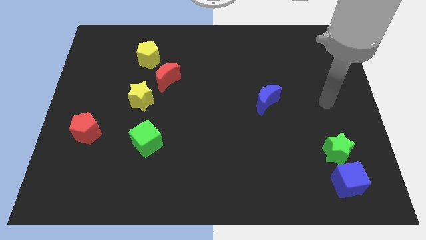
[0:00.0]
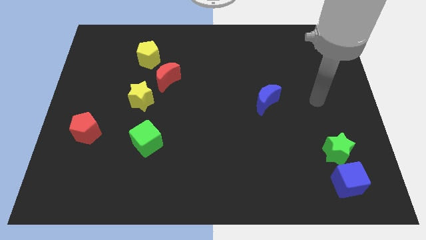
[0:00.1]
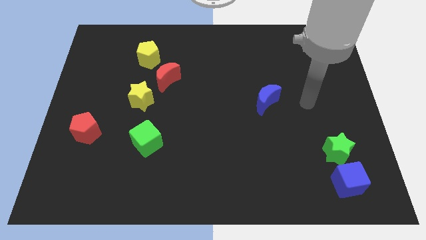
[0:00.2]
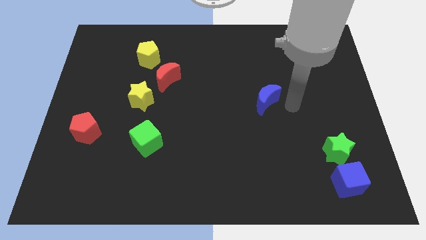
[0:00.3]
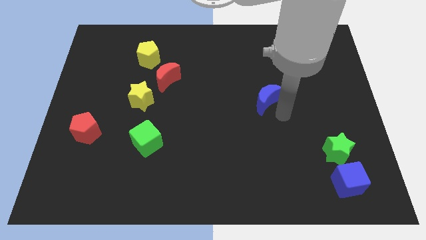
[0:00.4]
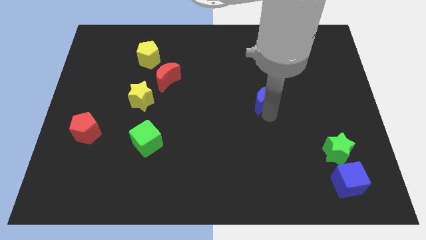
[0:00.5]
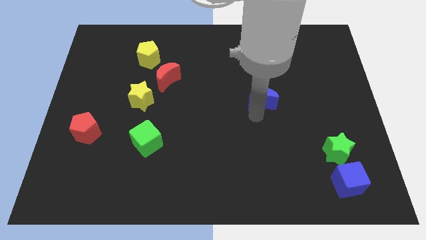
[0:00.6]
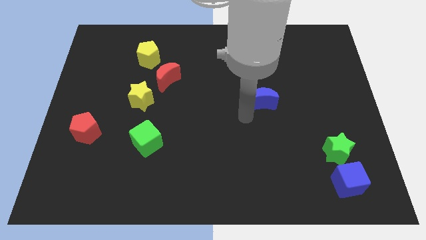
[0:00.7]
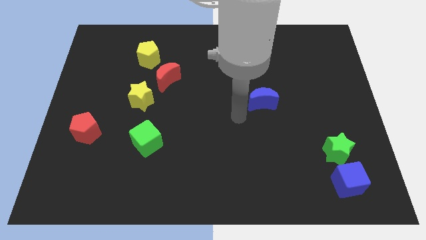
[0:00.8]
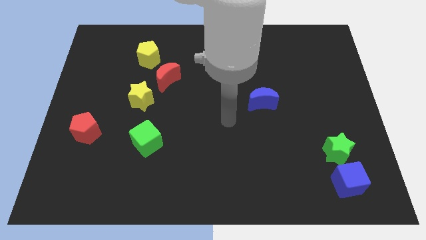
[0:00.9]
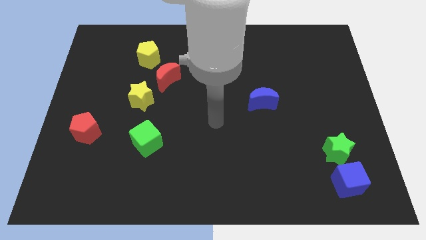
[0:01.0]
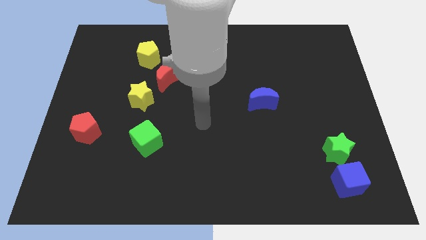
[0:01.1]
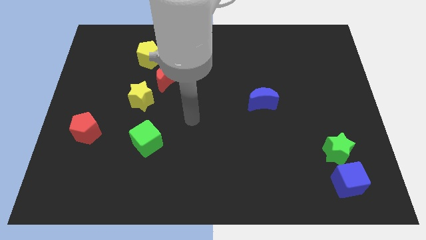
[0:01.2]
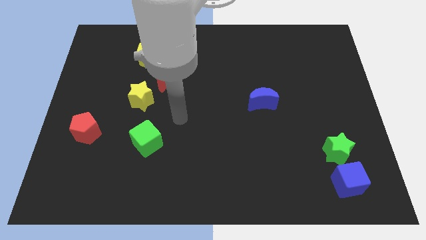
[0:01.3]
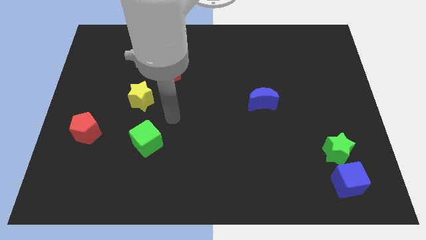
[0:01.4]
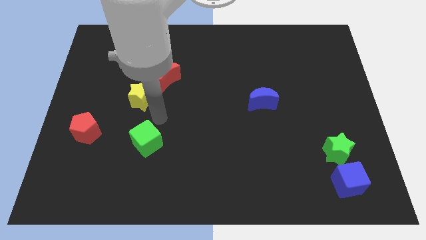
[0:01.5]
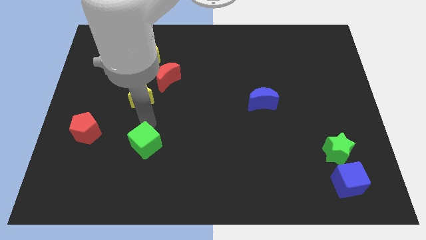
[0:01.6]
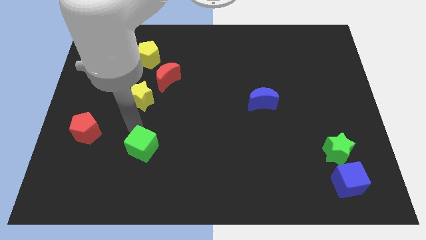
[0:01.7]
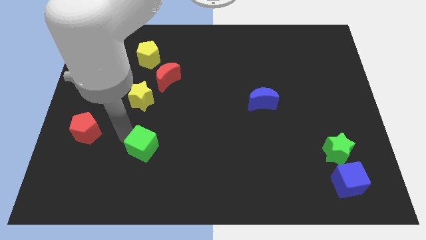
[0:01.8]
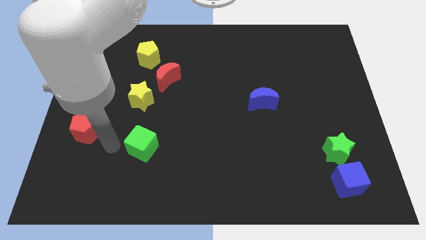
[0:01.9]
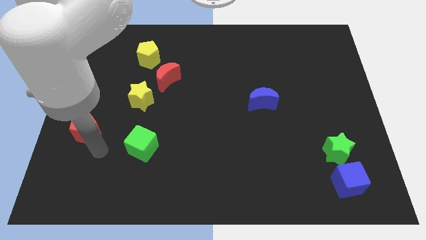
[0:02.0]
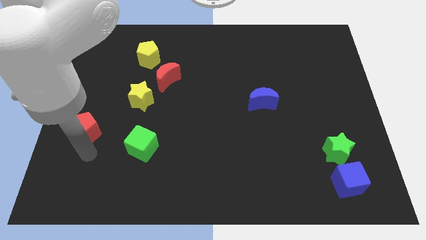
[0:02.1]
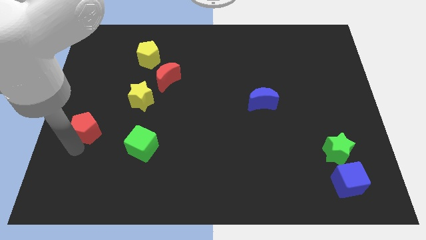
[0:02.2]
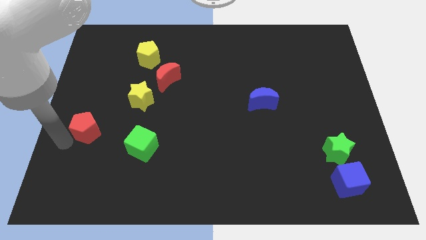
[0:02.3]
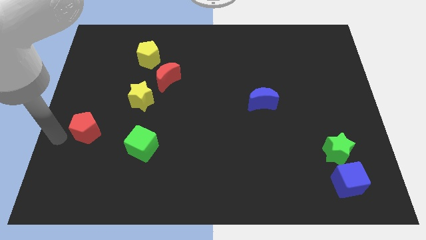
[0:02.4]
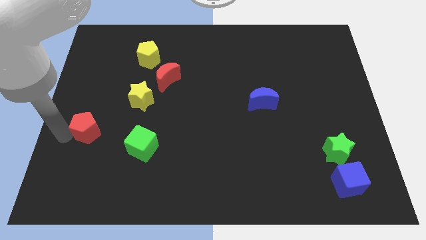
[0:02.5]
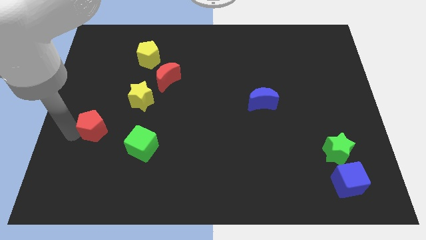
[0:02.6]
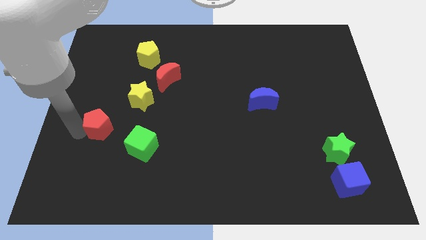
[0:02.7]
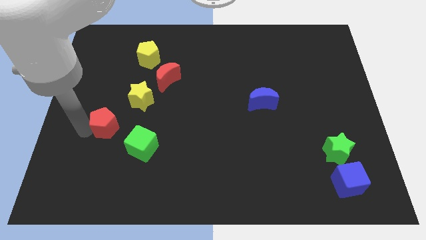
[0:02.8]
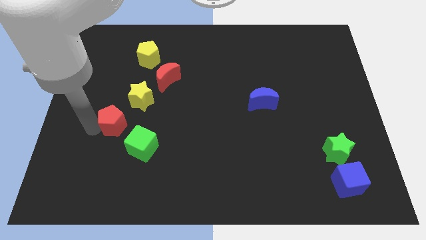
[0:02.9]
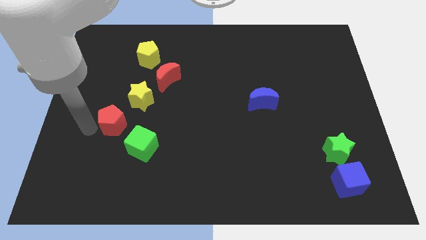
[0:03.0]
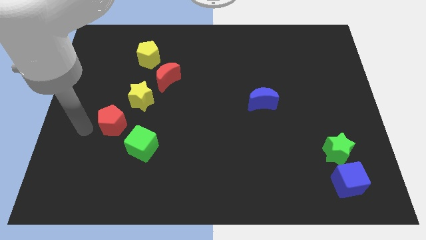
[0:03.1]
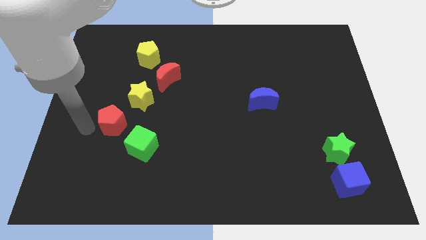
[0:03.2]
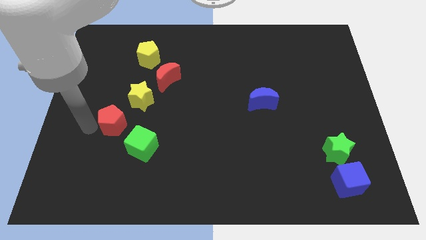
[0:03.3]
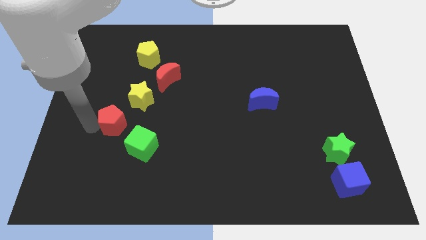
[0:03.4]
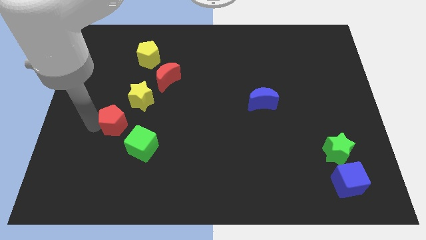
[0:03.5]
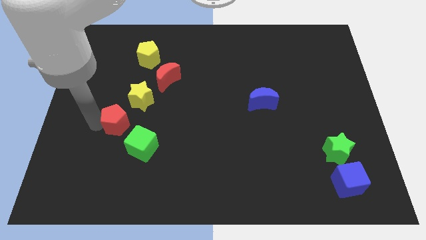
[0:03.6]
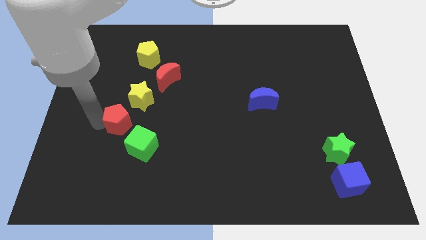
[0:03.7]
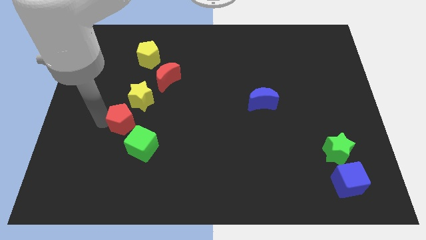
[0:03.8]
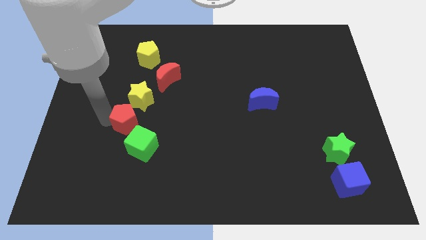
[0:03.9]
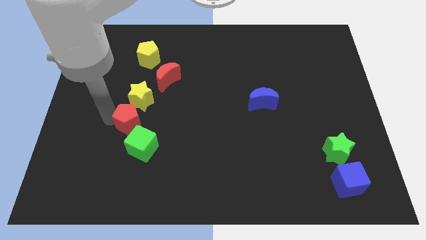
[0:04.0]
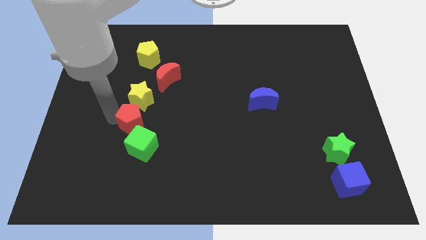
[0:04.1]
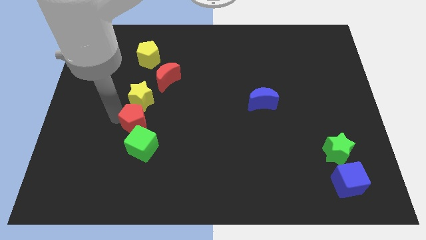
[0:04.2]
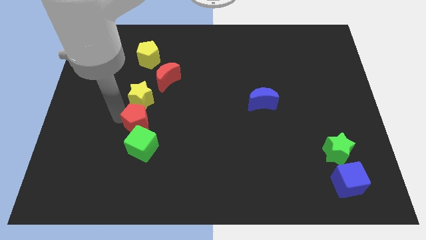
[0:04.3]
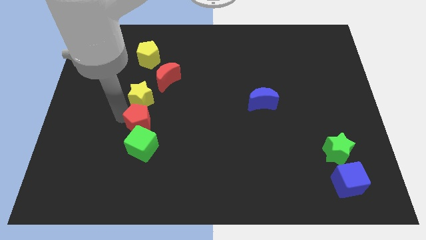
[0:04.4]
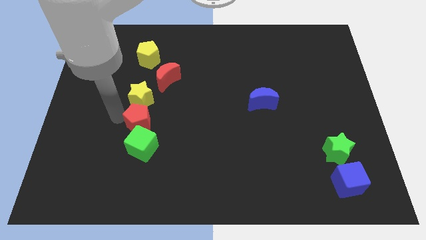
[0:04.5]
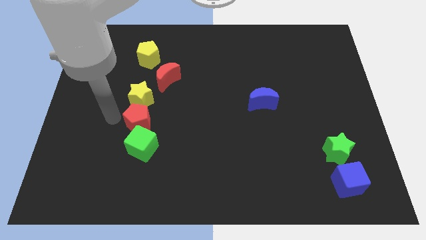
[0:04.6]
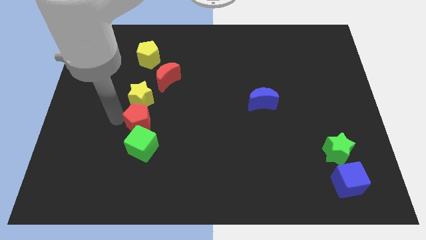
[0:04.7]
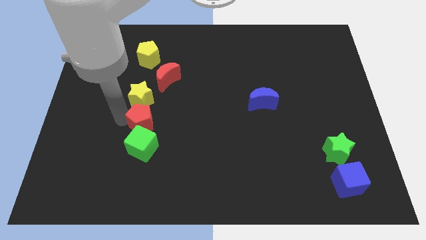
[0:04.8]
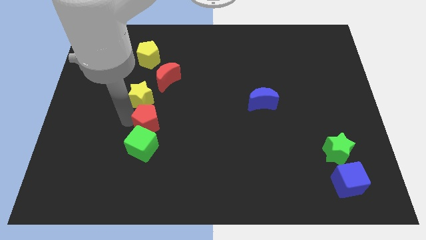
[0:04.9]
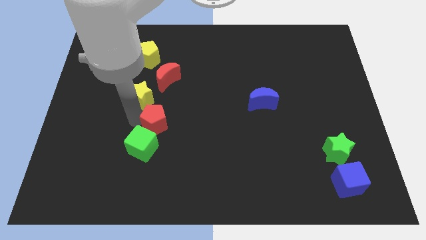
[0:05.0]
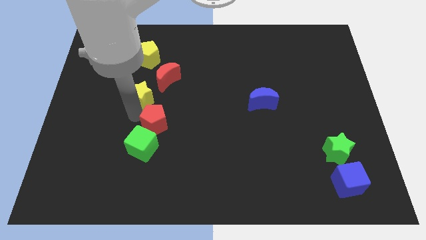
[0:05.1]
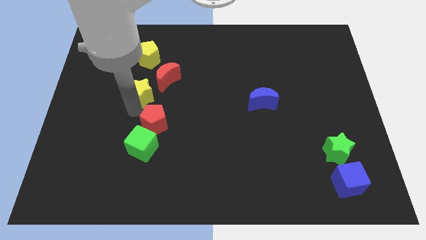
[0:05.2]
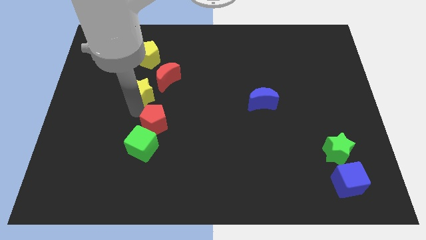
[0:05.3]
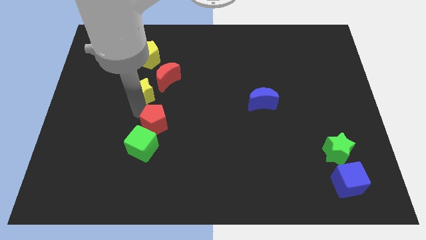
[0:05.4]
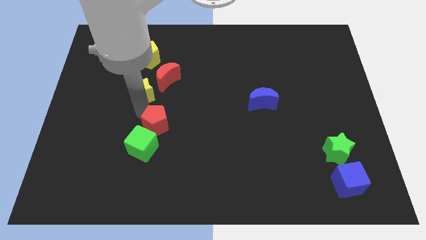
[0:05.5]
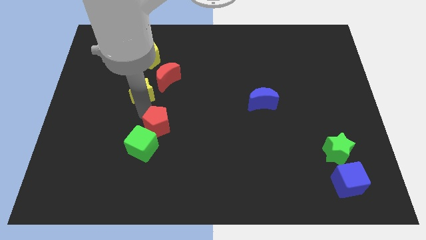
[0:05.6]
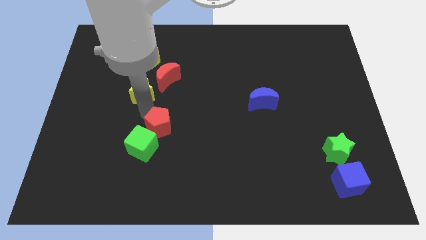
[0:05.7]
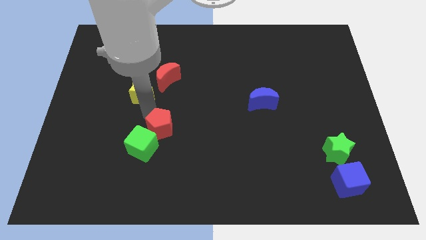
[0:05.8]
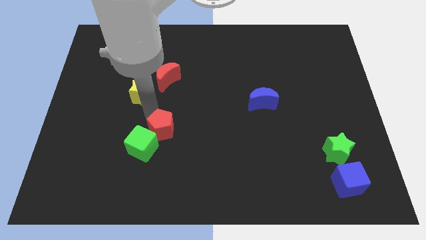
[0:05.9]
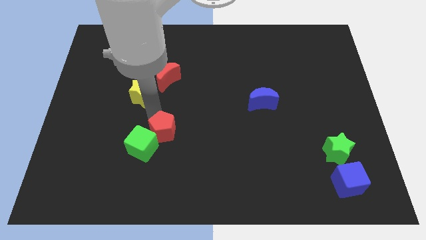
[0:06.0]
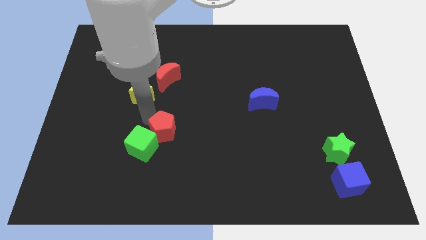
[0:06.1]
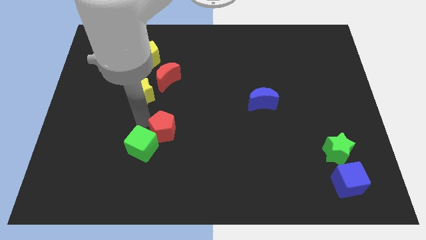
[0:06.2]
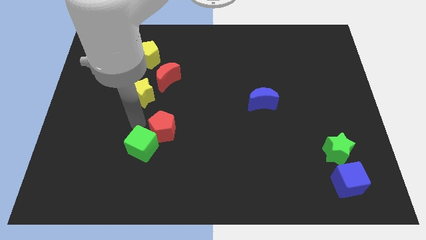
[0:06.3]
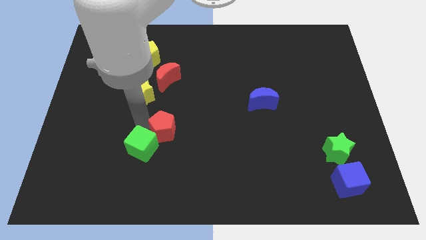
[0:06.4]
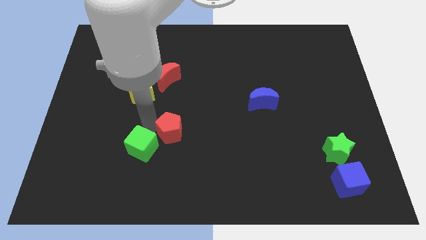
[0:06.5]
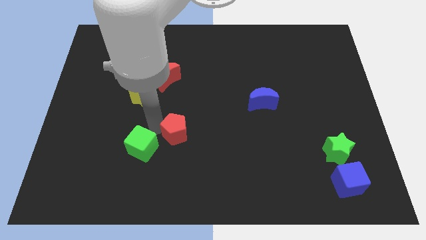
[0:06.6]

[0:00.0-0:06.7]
push the red pentagon right

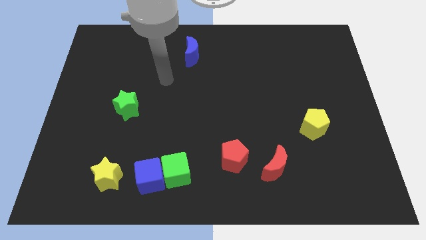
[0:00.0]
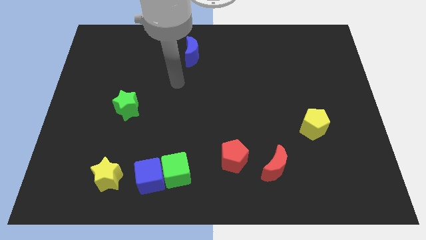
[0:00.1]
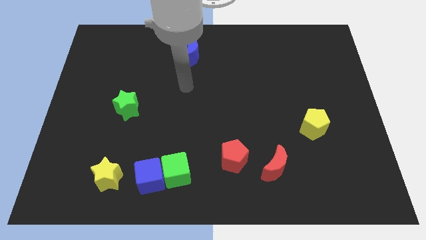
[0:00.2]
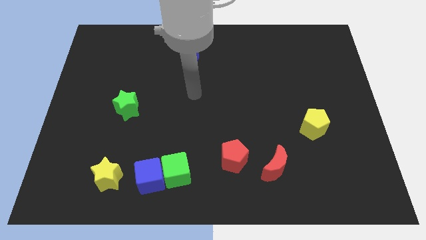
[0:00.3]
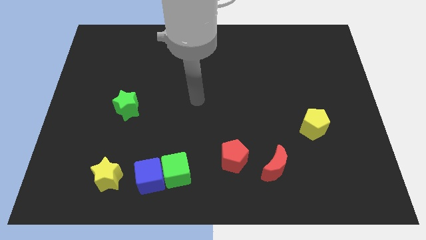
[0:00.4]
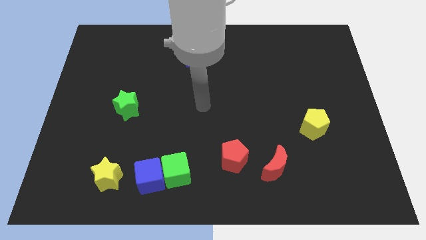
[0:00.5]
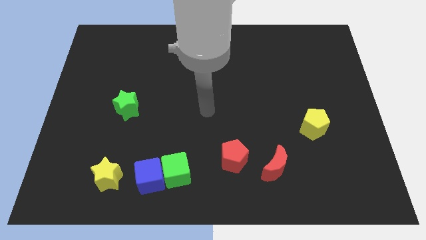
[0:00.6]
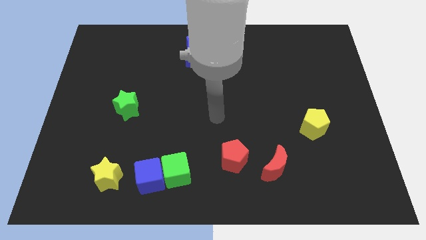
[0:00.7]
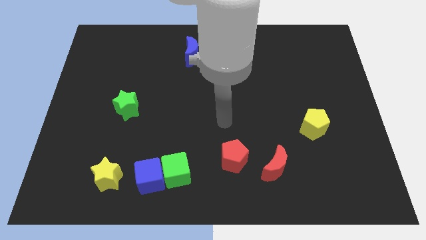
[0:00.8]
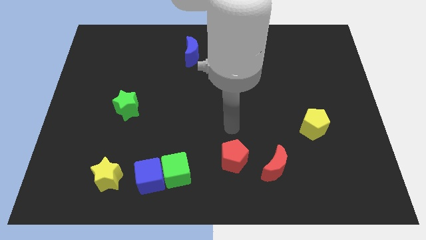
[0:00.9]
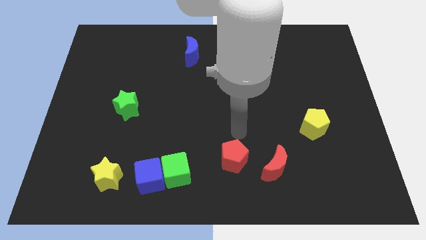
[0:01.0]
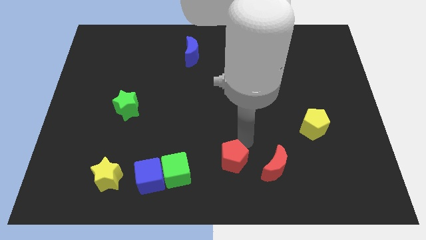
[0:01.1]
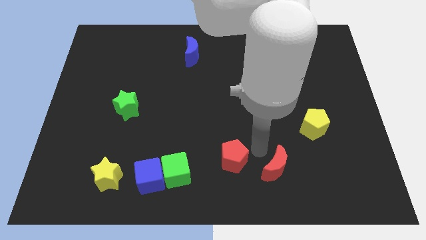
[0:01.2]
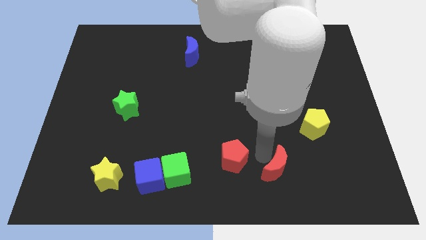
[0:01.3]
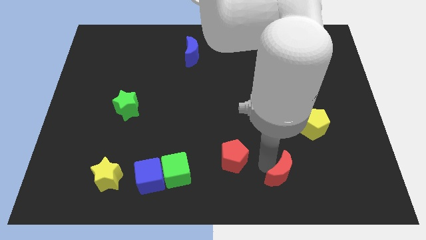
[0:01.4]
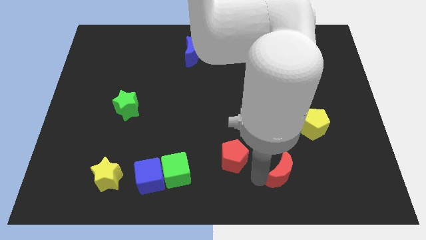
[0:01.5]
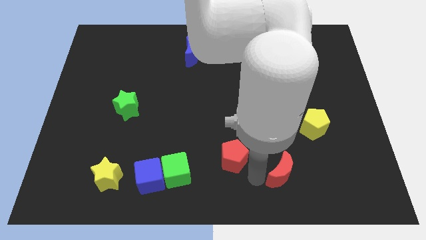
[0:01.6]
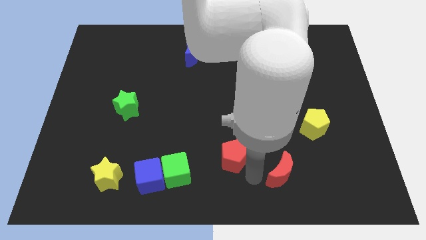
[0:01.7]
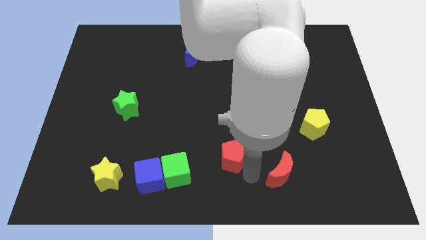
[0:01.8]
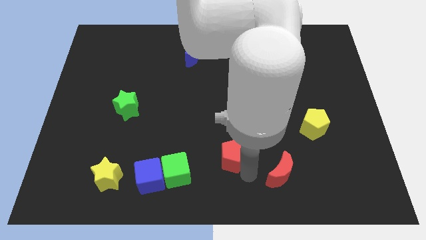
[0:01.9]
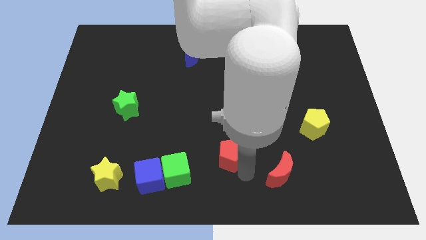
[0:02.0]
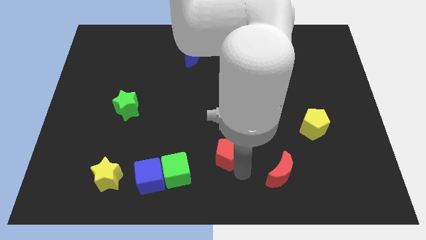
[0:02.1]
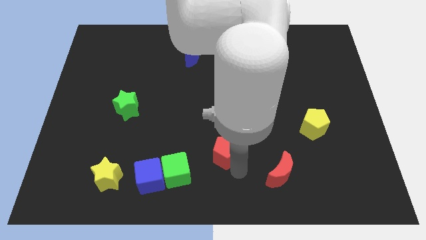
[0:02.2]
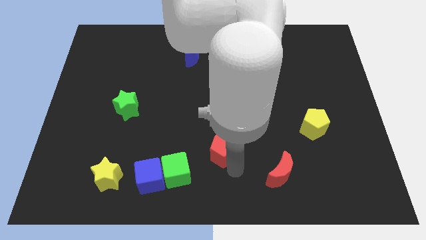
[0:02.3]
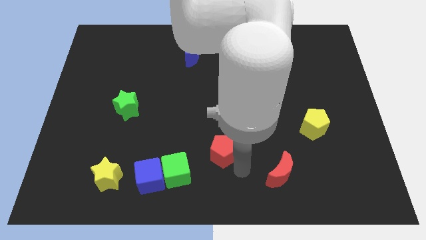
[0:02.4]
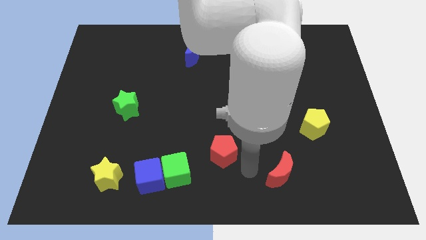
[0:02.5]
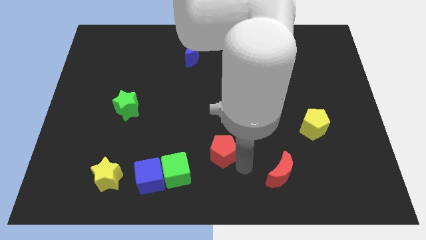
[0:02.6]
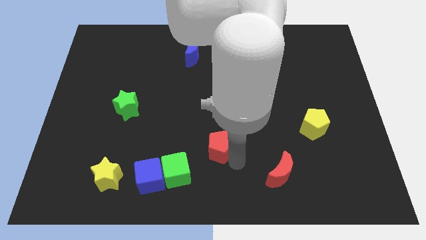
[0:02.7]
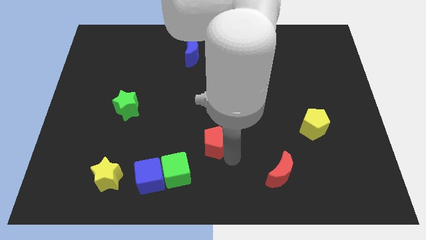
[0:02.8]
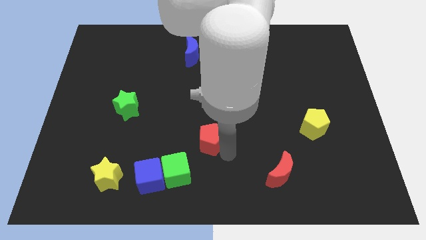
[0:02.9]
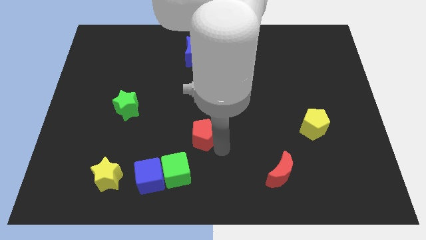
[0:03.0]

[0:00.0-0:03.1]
slide the red pentagon a little up and to the left
